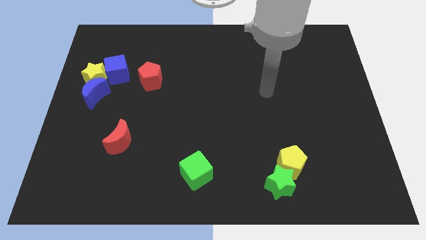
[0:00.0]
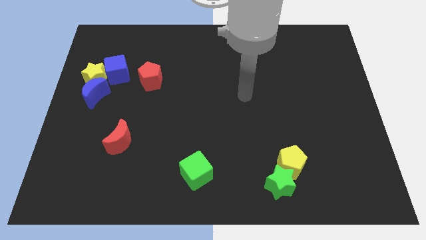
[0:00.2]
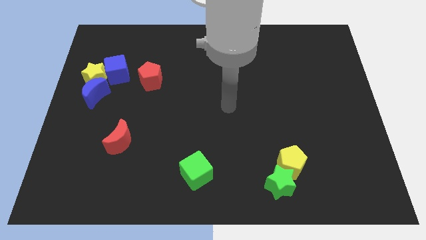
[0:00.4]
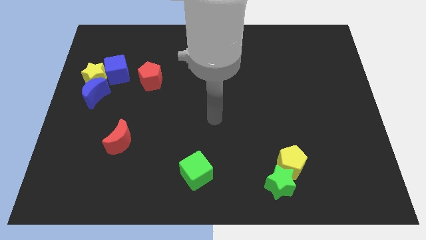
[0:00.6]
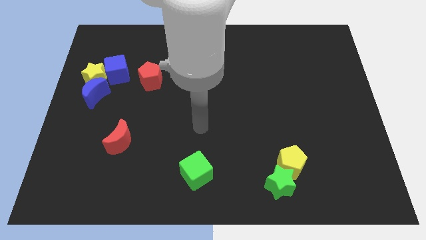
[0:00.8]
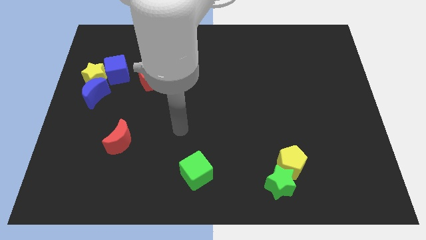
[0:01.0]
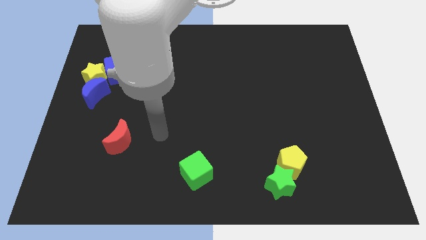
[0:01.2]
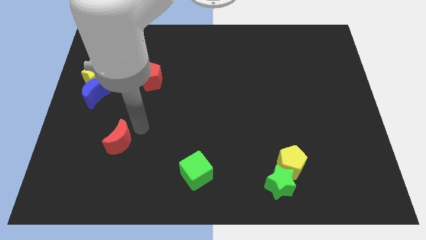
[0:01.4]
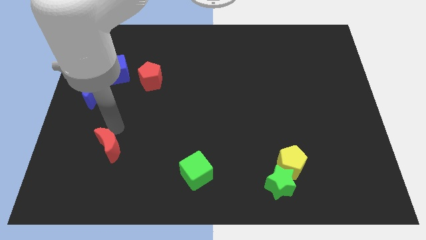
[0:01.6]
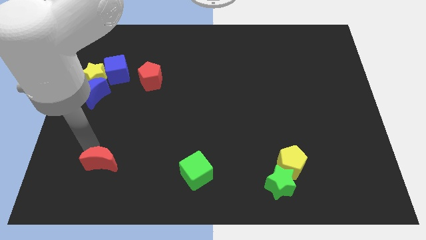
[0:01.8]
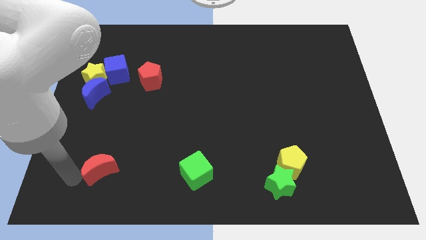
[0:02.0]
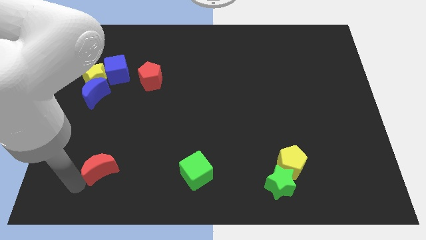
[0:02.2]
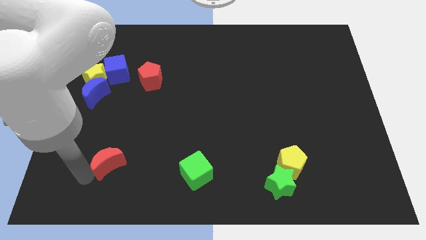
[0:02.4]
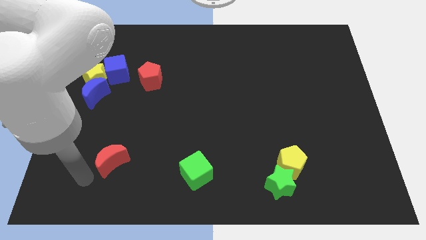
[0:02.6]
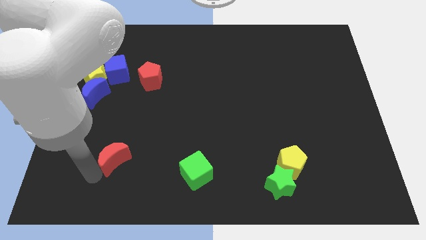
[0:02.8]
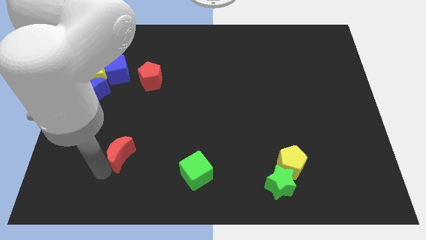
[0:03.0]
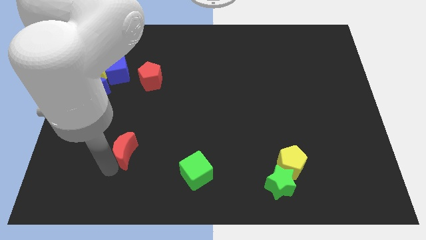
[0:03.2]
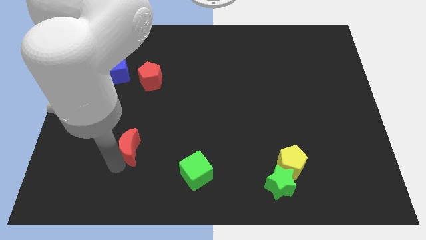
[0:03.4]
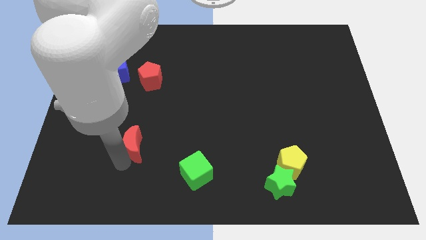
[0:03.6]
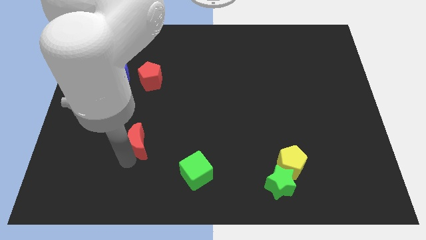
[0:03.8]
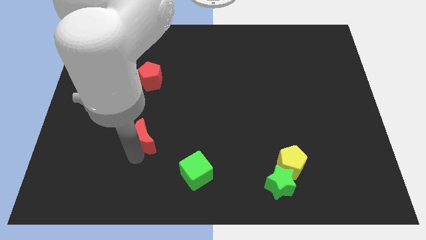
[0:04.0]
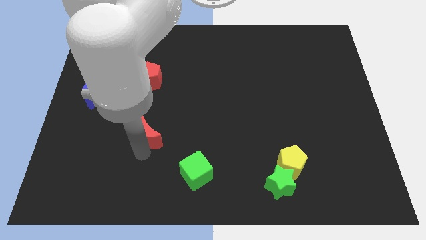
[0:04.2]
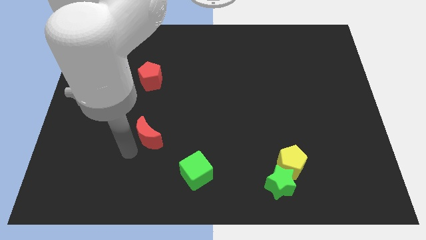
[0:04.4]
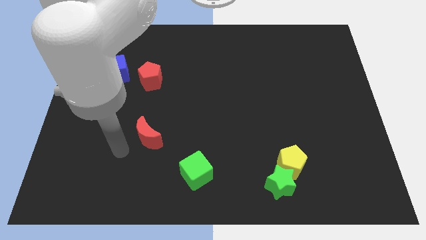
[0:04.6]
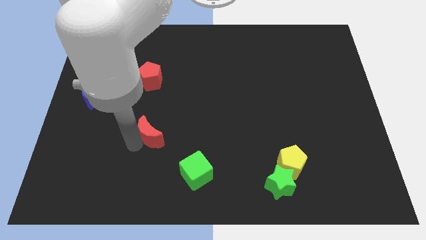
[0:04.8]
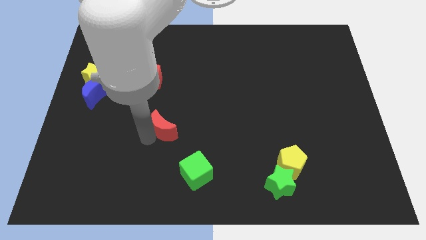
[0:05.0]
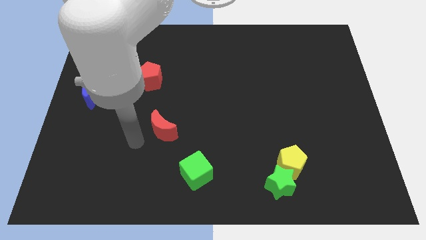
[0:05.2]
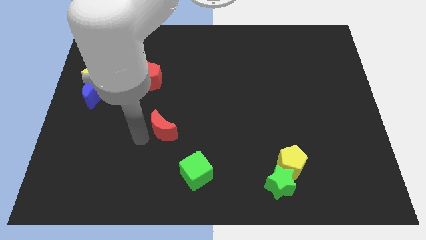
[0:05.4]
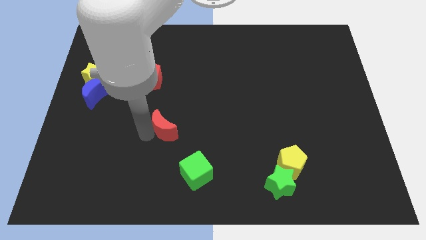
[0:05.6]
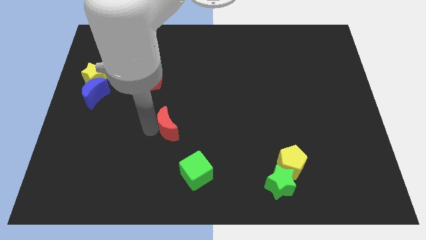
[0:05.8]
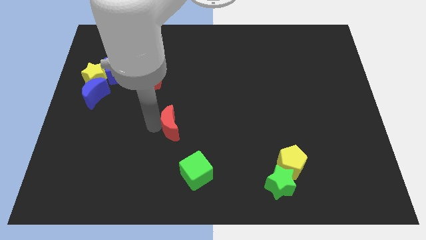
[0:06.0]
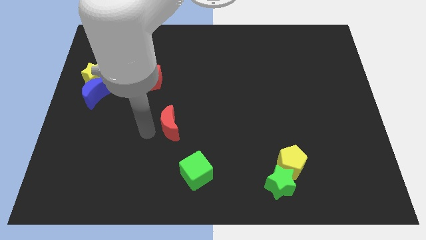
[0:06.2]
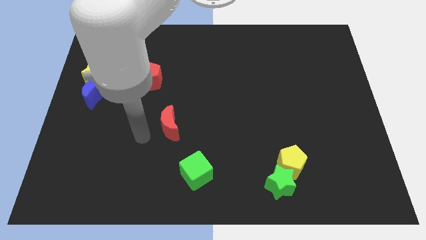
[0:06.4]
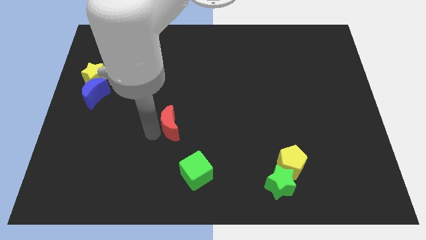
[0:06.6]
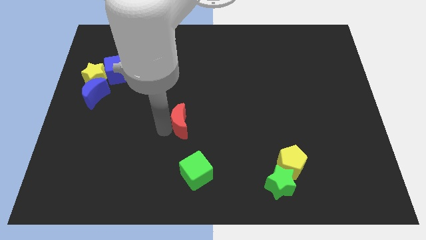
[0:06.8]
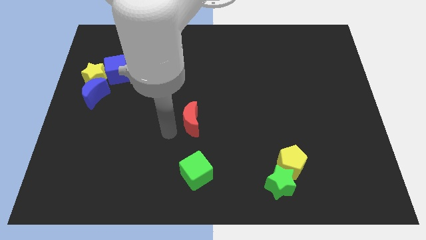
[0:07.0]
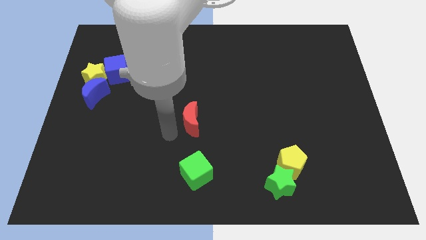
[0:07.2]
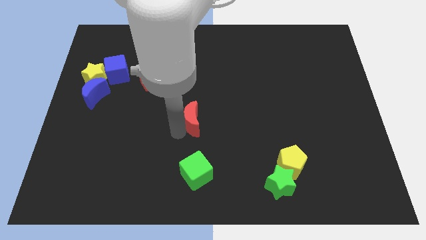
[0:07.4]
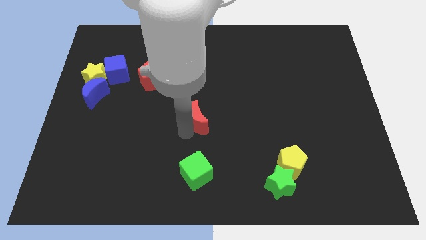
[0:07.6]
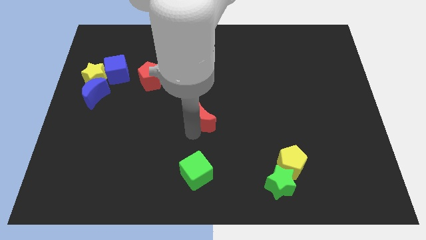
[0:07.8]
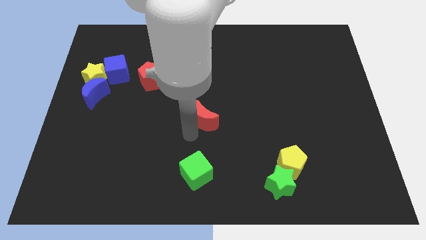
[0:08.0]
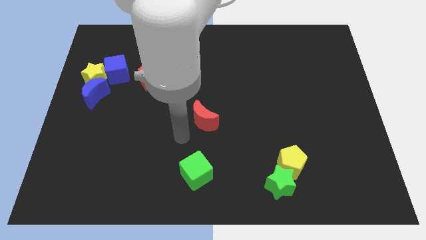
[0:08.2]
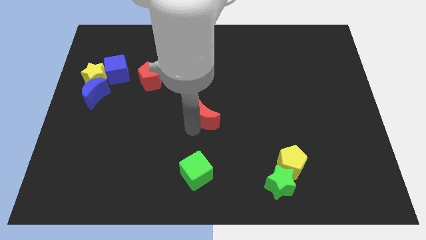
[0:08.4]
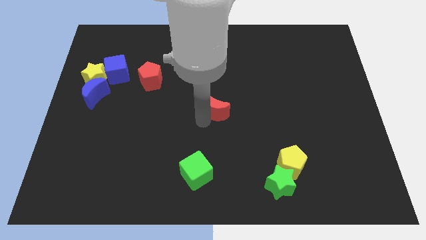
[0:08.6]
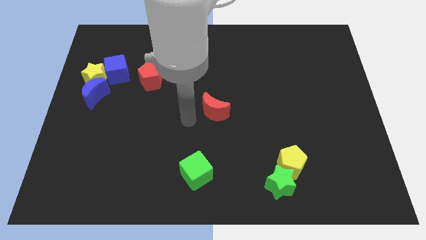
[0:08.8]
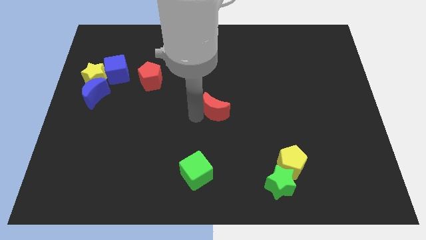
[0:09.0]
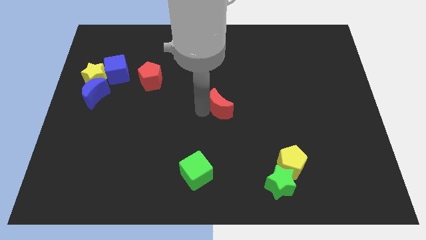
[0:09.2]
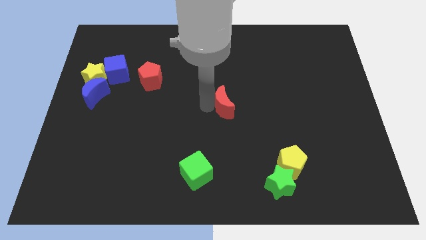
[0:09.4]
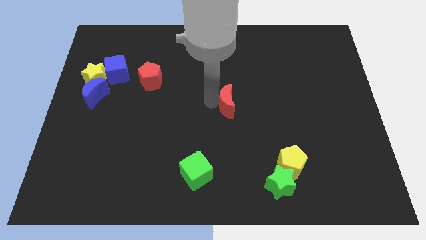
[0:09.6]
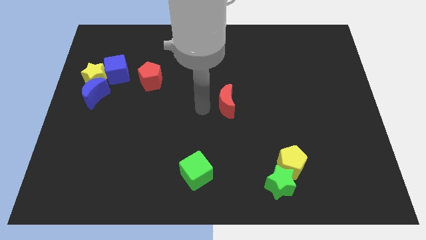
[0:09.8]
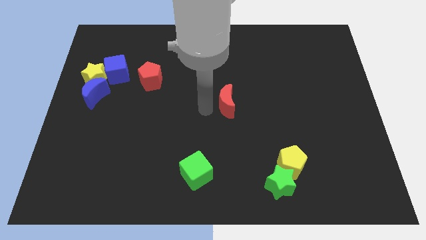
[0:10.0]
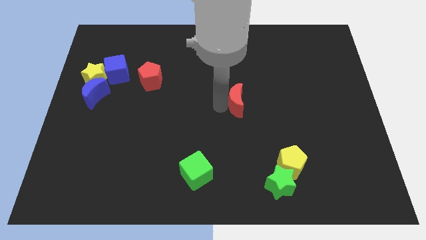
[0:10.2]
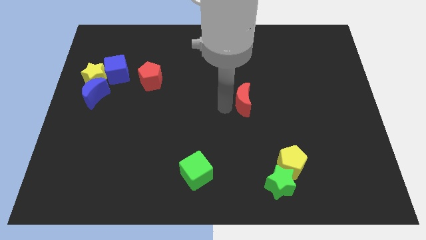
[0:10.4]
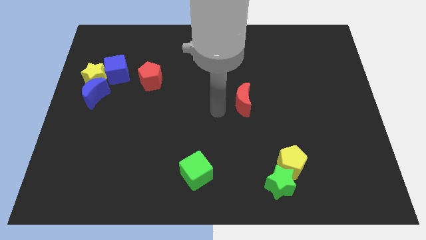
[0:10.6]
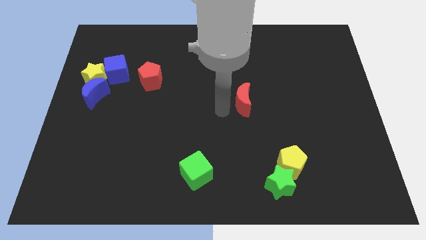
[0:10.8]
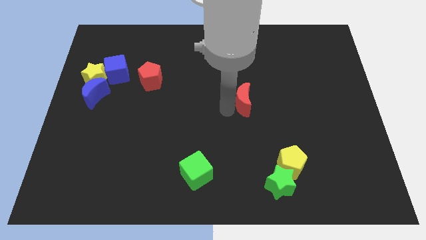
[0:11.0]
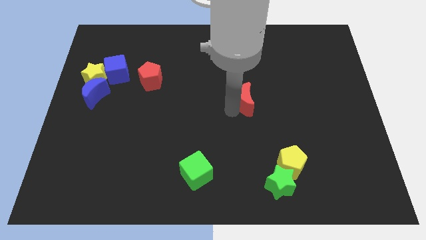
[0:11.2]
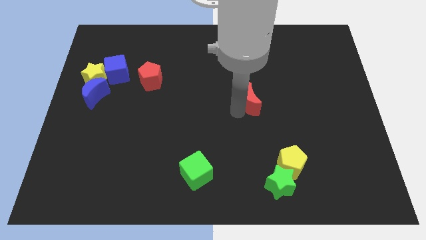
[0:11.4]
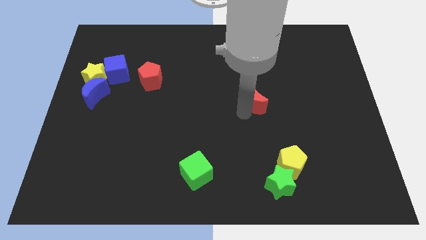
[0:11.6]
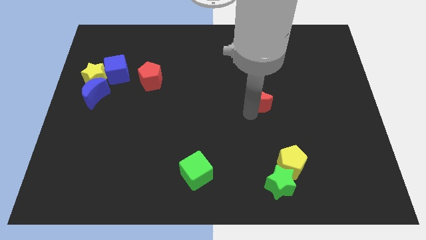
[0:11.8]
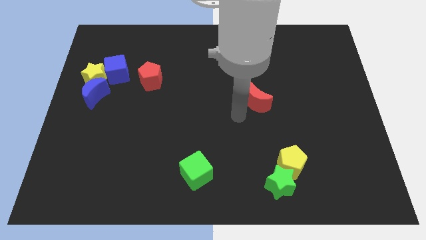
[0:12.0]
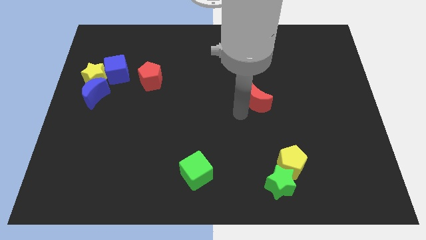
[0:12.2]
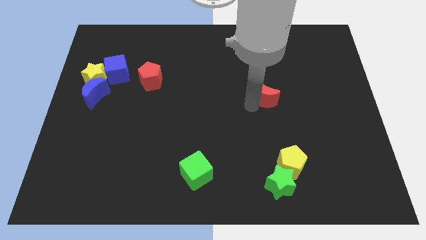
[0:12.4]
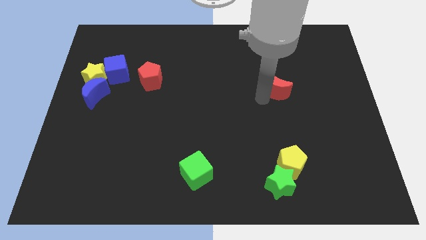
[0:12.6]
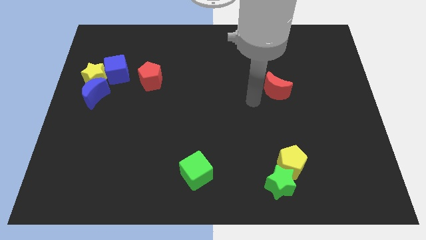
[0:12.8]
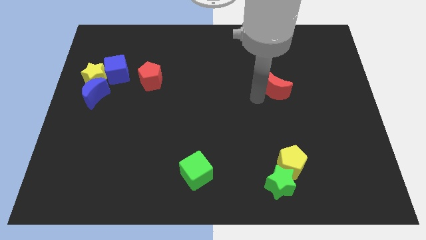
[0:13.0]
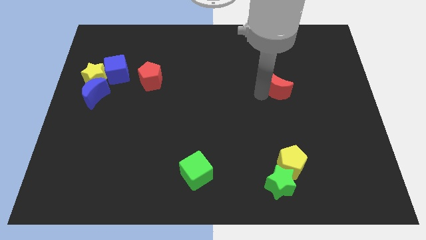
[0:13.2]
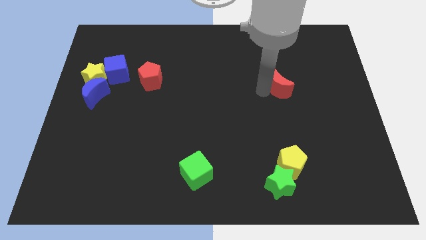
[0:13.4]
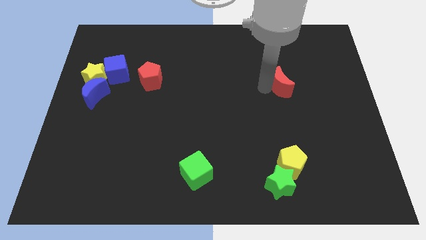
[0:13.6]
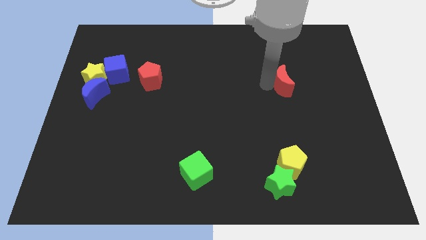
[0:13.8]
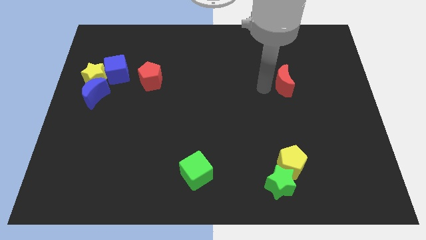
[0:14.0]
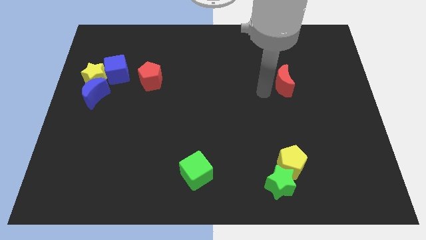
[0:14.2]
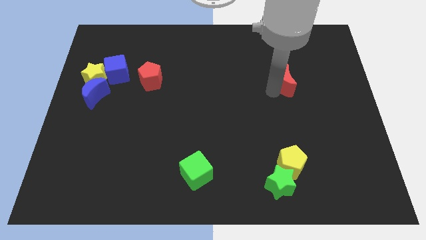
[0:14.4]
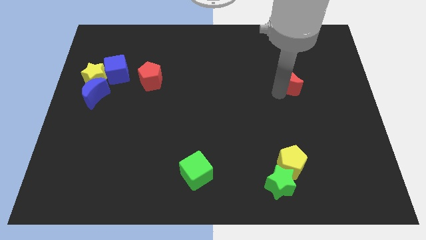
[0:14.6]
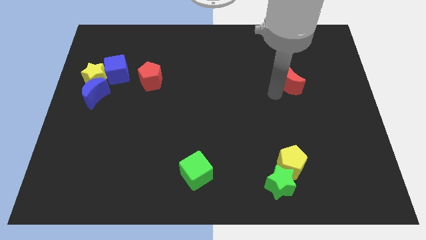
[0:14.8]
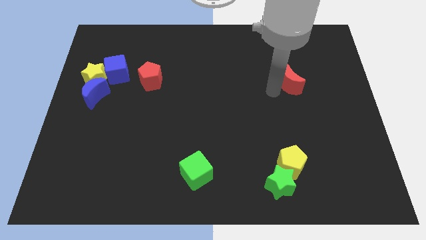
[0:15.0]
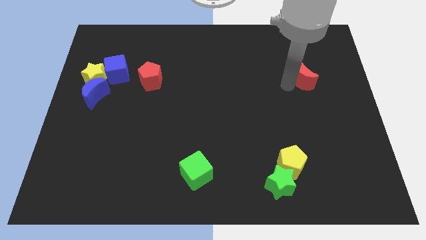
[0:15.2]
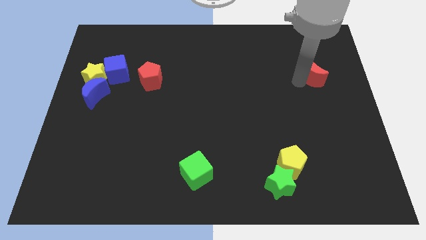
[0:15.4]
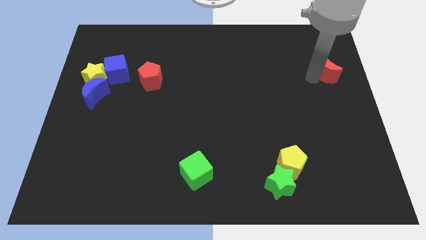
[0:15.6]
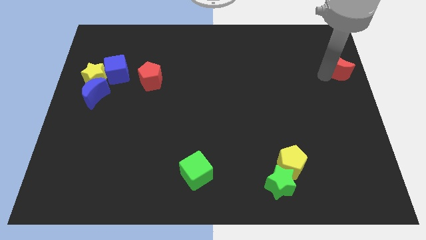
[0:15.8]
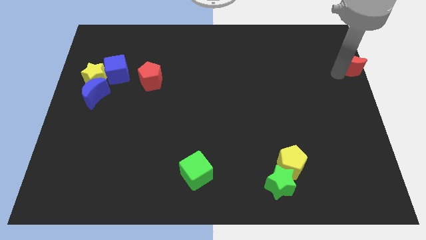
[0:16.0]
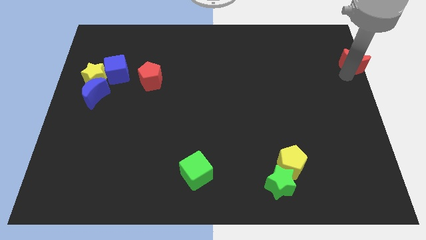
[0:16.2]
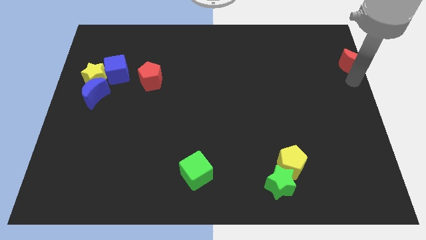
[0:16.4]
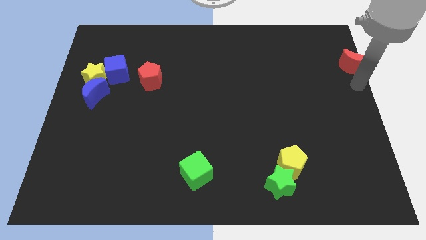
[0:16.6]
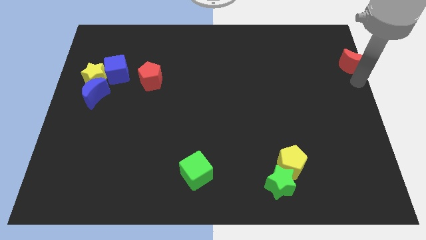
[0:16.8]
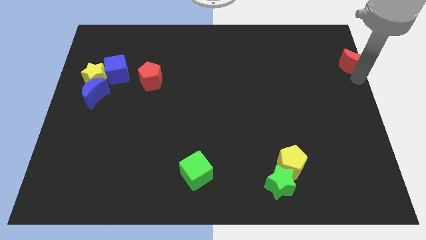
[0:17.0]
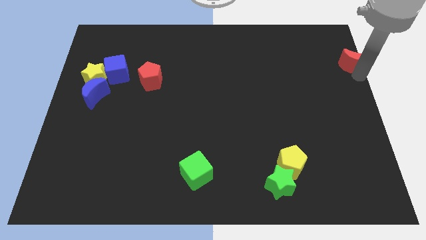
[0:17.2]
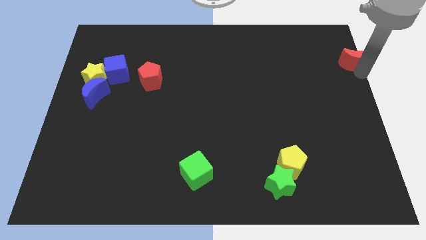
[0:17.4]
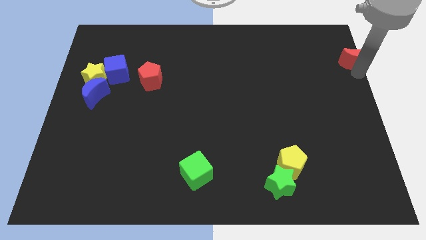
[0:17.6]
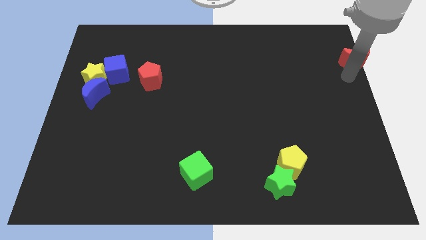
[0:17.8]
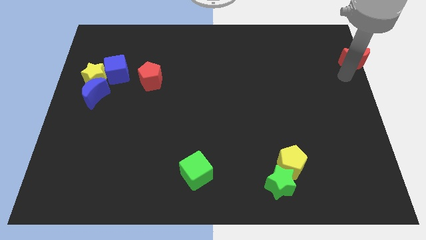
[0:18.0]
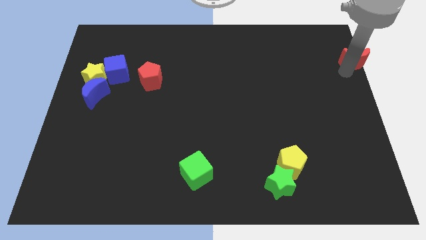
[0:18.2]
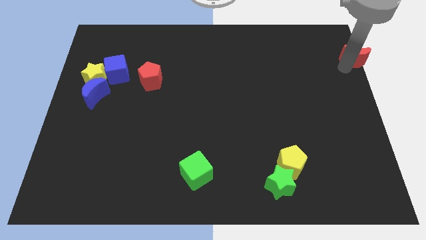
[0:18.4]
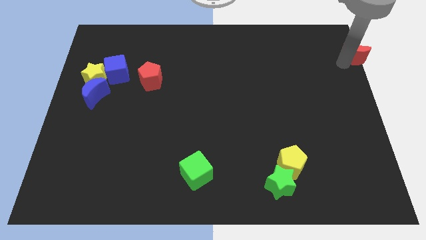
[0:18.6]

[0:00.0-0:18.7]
move the red moon to the top right
